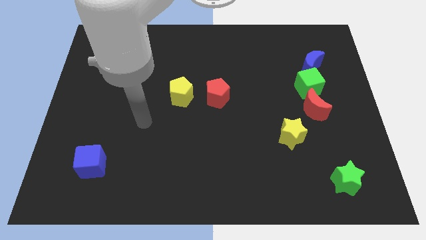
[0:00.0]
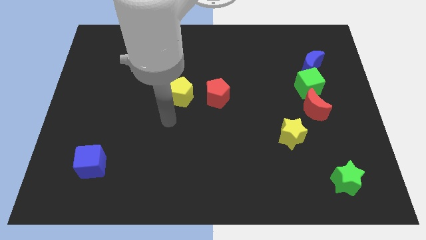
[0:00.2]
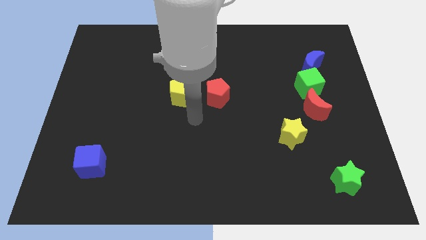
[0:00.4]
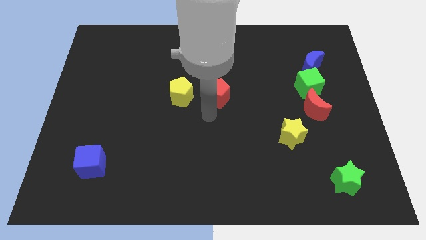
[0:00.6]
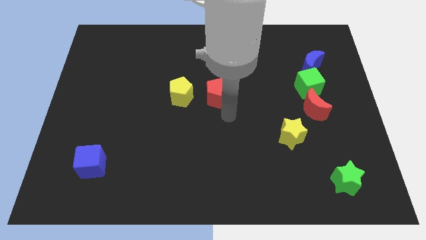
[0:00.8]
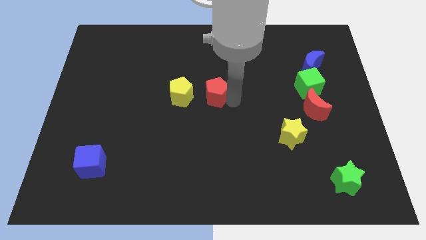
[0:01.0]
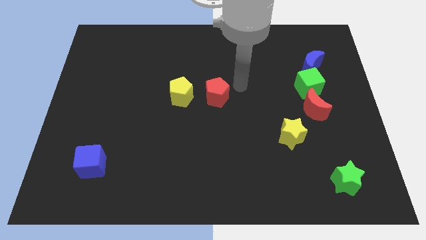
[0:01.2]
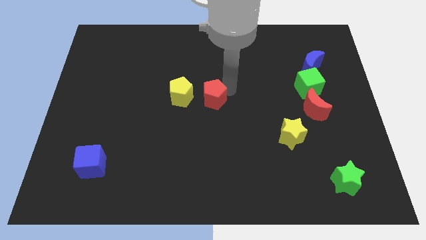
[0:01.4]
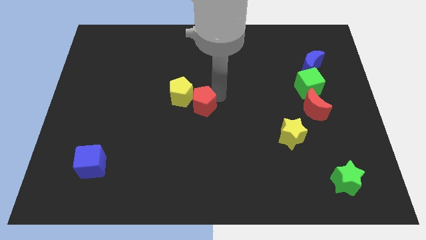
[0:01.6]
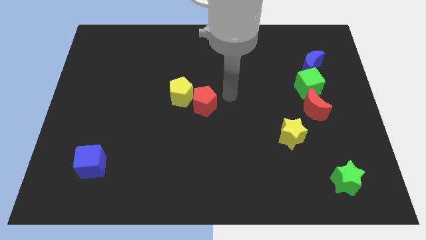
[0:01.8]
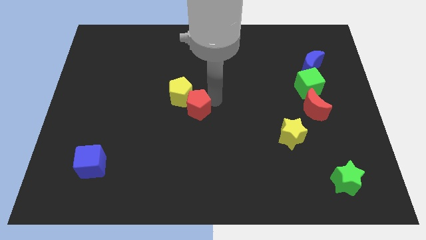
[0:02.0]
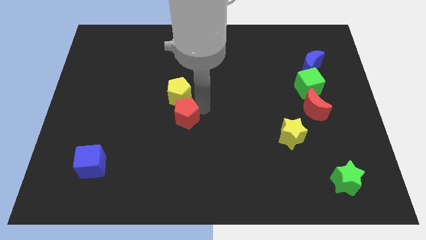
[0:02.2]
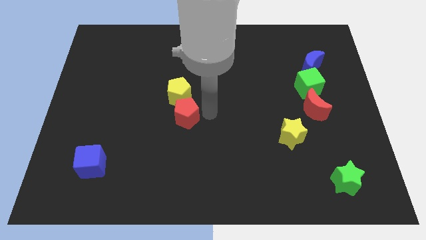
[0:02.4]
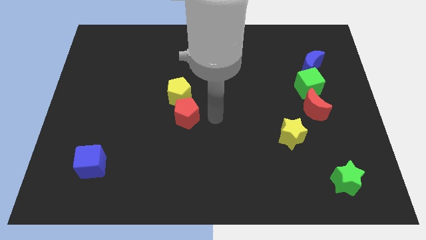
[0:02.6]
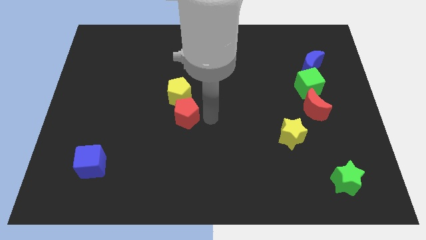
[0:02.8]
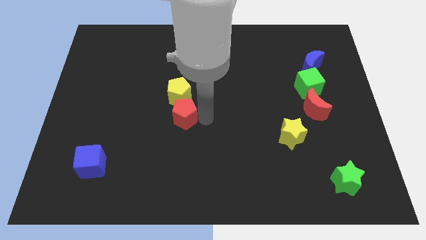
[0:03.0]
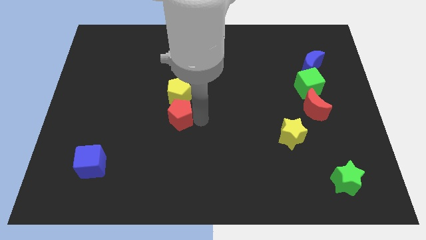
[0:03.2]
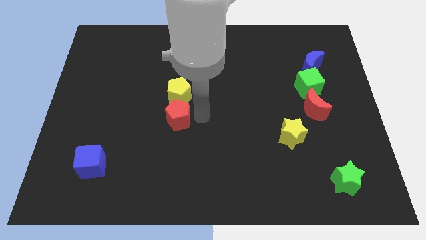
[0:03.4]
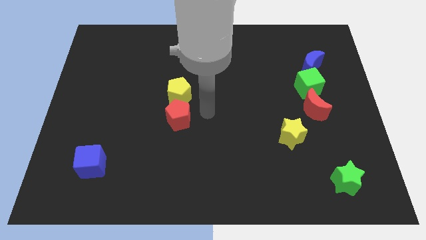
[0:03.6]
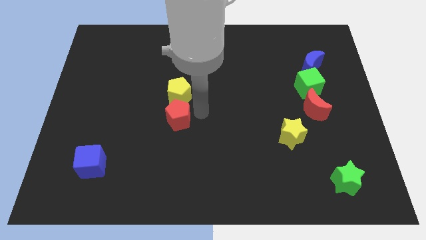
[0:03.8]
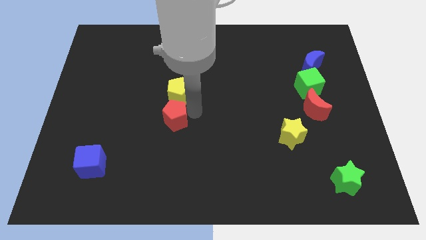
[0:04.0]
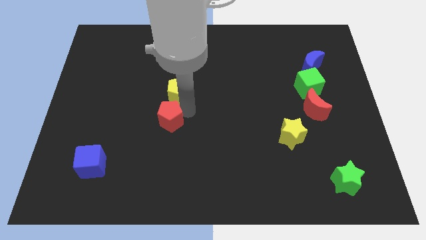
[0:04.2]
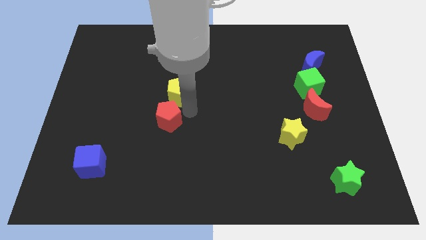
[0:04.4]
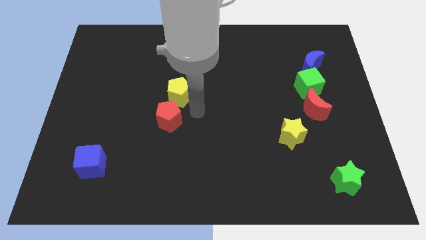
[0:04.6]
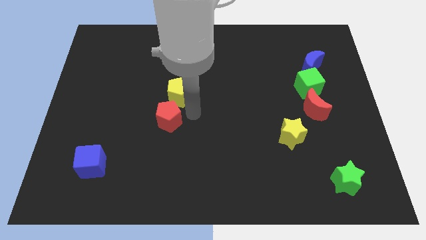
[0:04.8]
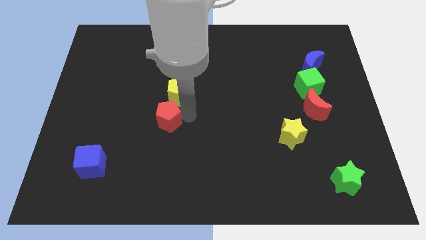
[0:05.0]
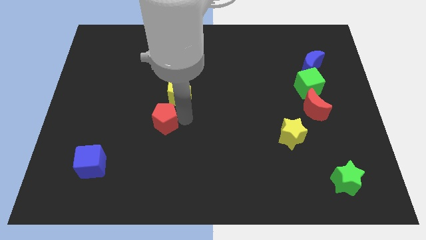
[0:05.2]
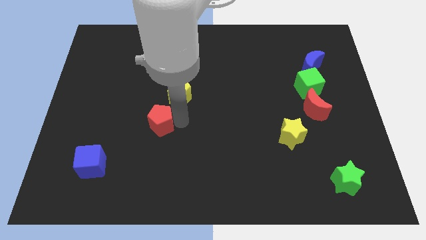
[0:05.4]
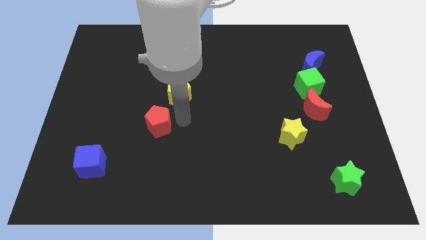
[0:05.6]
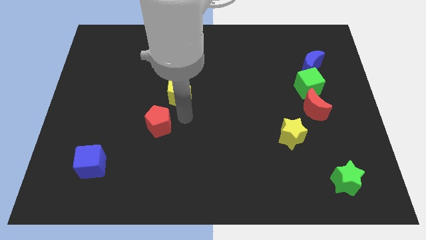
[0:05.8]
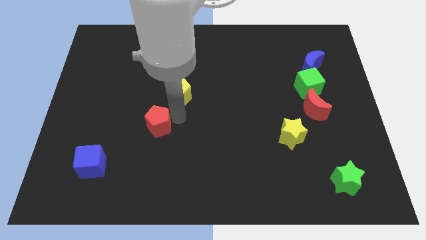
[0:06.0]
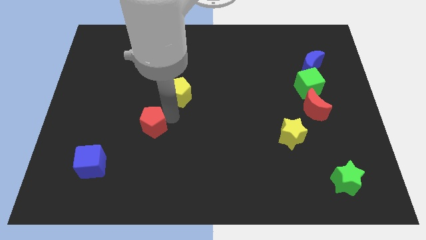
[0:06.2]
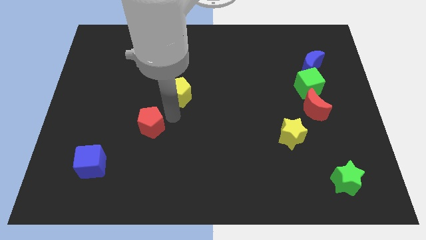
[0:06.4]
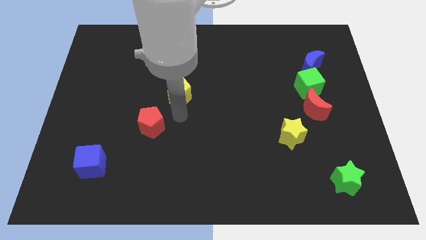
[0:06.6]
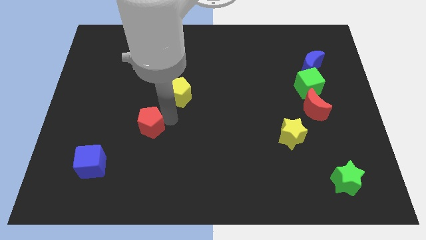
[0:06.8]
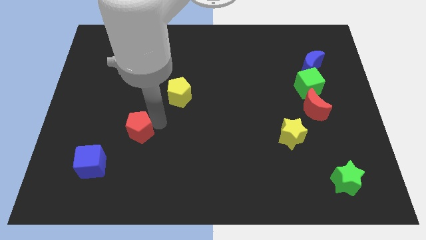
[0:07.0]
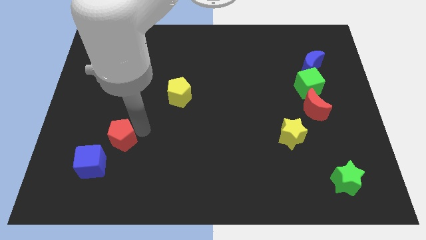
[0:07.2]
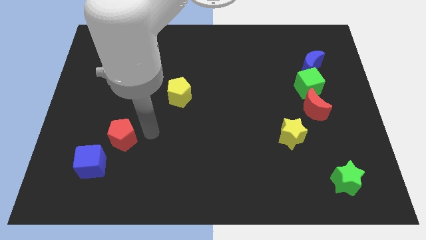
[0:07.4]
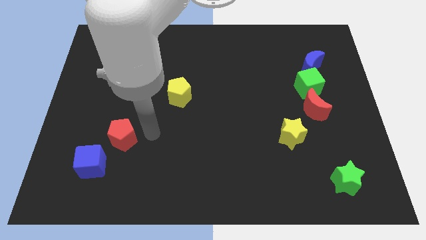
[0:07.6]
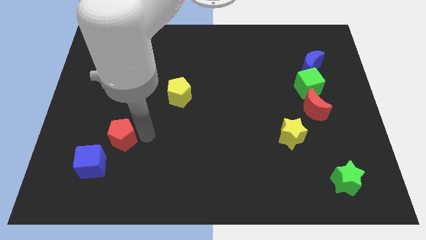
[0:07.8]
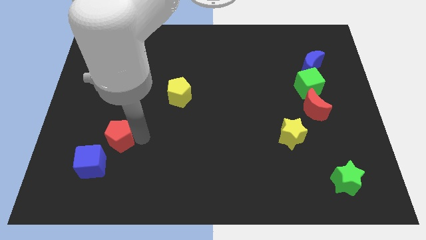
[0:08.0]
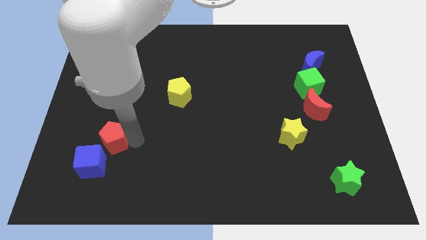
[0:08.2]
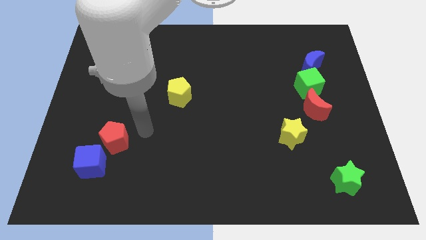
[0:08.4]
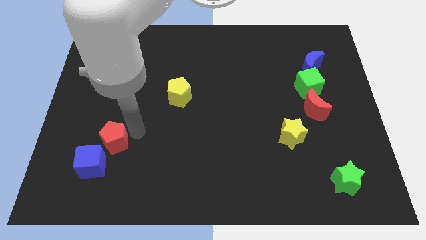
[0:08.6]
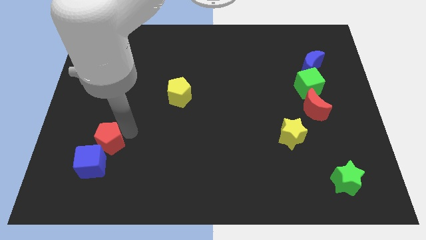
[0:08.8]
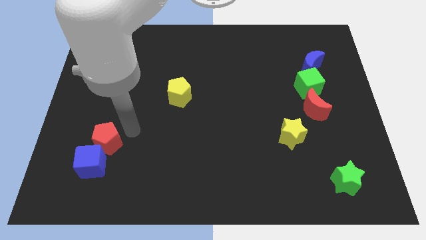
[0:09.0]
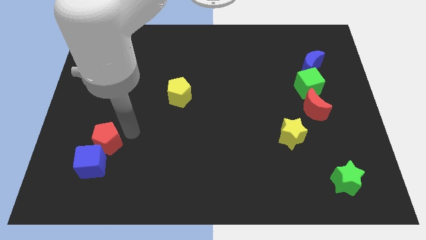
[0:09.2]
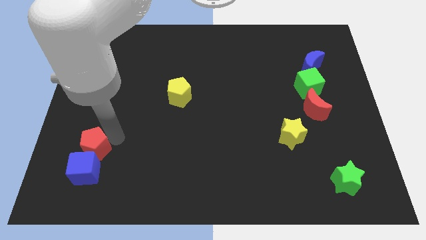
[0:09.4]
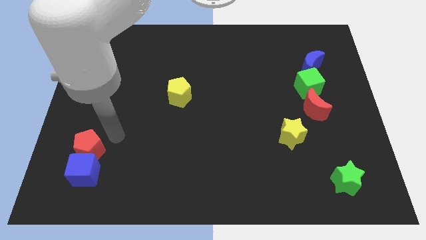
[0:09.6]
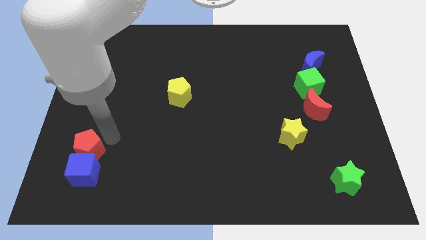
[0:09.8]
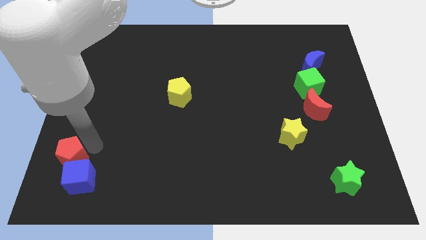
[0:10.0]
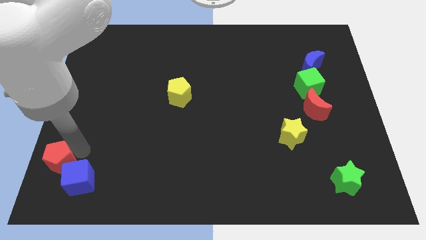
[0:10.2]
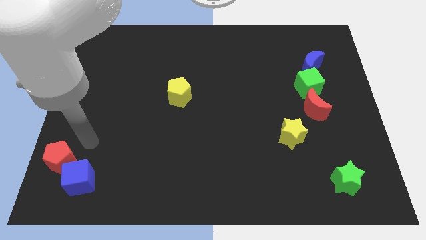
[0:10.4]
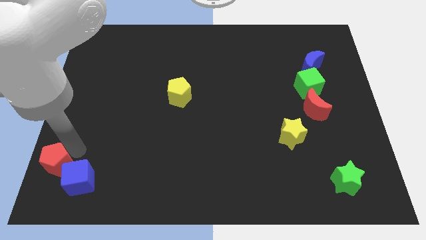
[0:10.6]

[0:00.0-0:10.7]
push the red pentagon to the bottom left of the board
